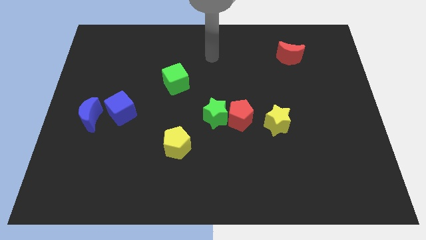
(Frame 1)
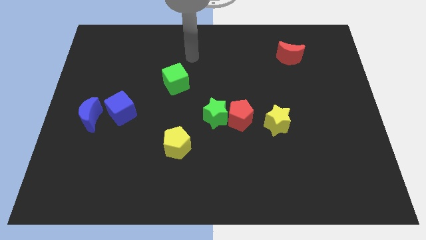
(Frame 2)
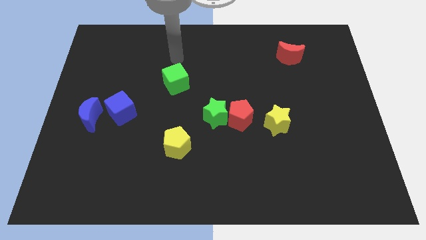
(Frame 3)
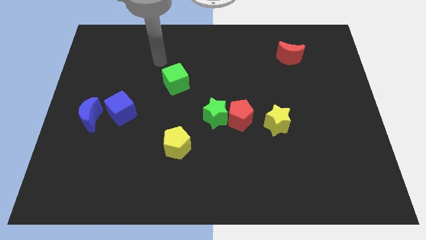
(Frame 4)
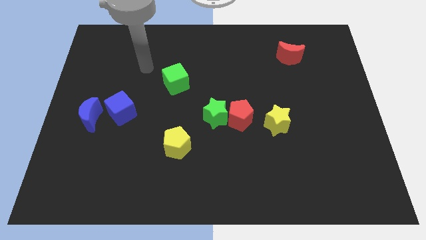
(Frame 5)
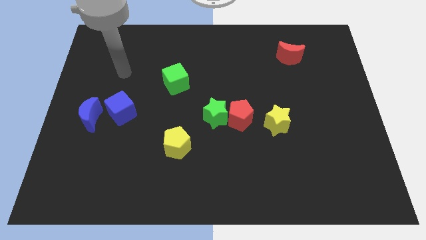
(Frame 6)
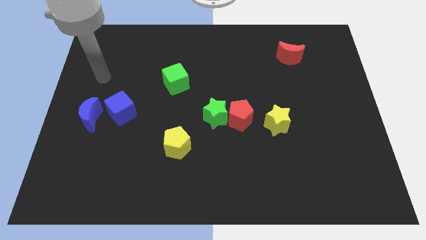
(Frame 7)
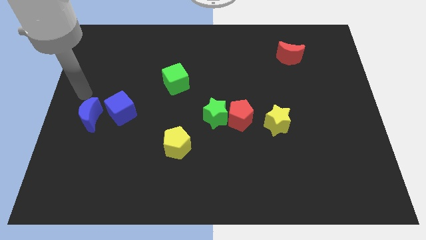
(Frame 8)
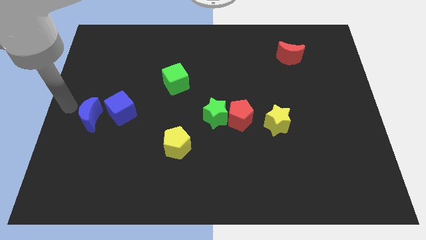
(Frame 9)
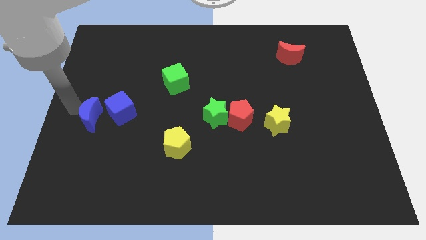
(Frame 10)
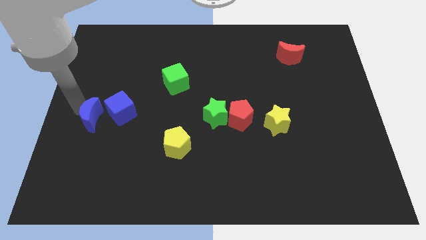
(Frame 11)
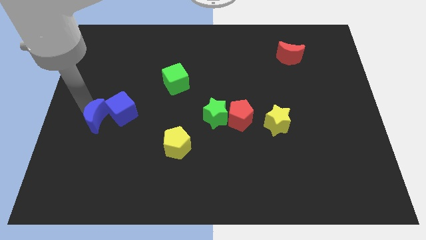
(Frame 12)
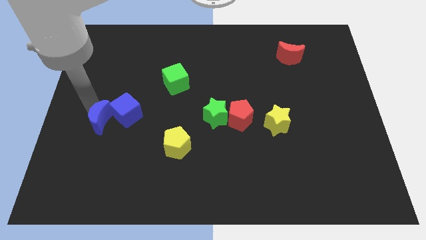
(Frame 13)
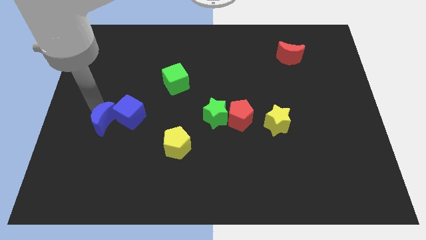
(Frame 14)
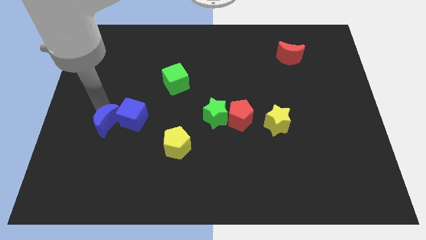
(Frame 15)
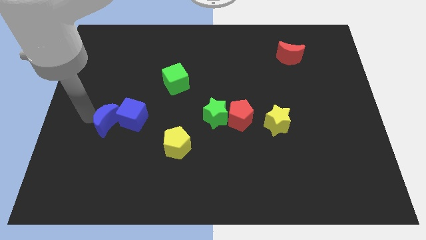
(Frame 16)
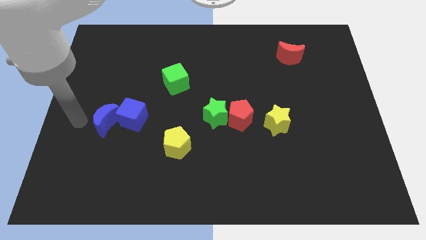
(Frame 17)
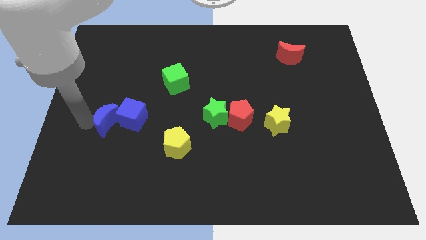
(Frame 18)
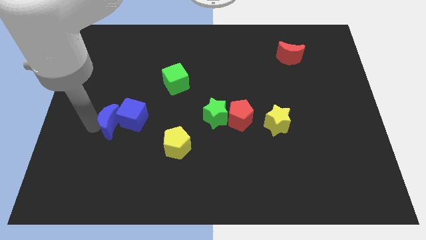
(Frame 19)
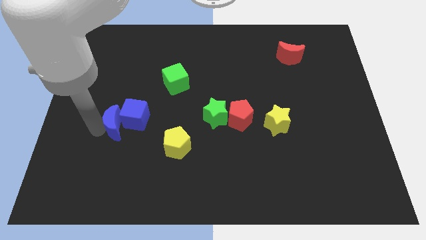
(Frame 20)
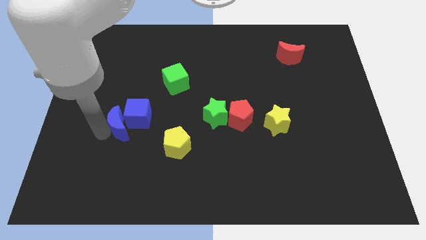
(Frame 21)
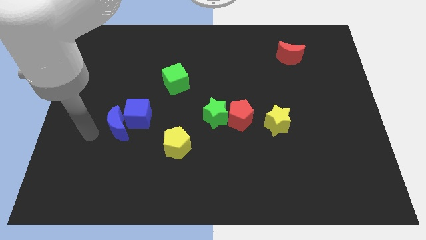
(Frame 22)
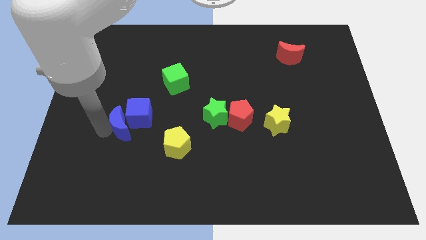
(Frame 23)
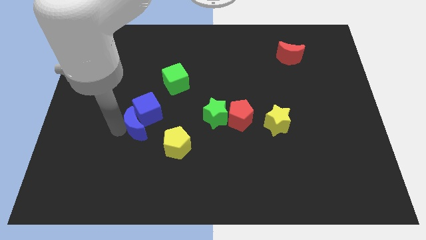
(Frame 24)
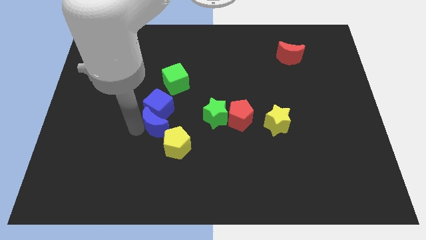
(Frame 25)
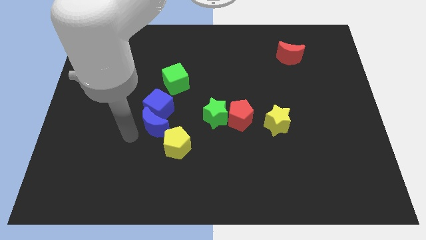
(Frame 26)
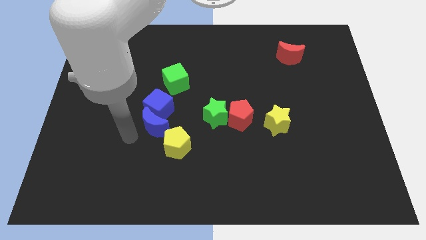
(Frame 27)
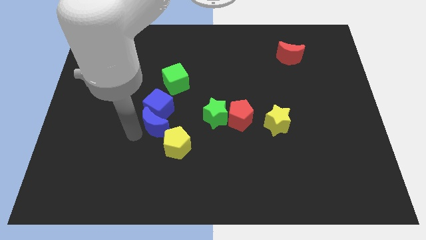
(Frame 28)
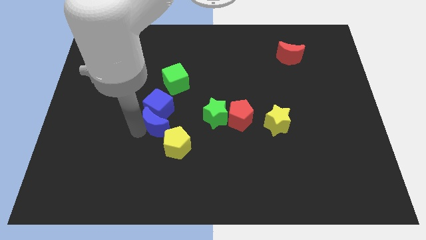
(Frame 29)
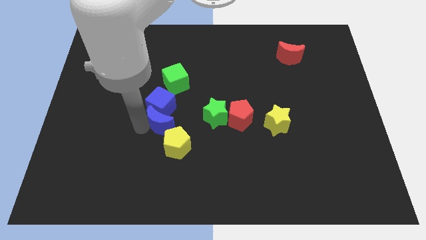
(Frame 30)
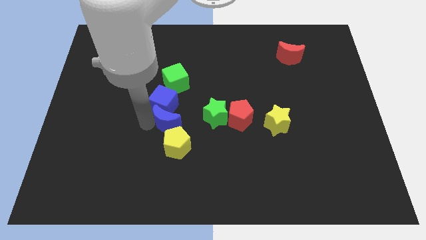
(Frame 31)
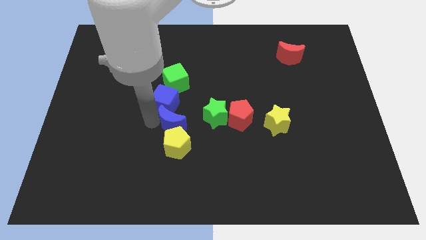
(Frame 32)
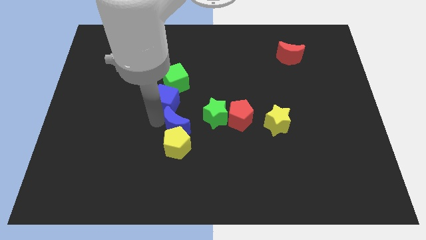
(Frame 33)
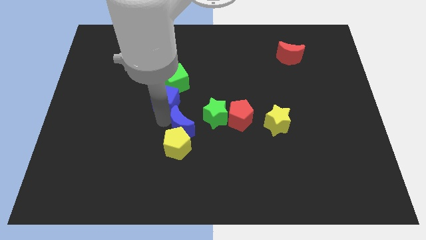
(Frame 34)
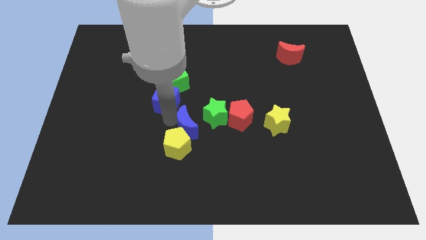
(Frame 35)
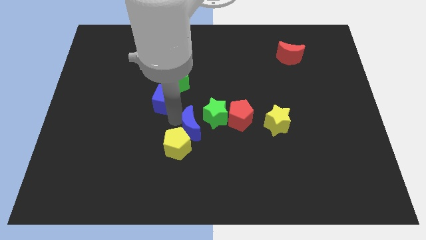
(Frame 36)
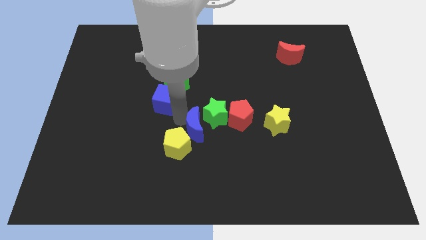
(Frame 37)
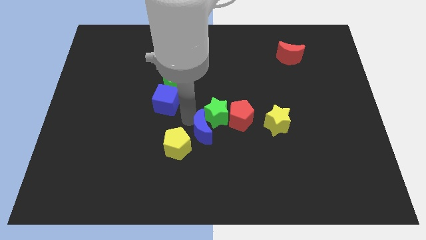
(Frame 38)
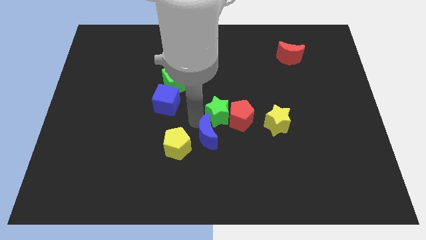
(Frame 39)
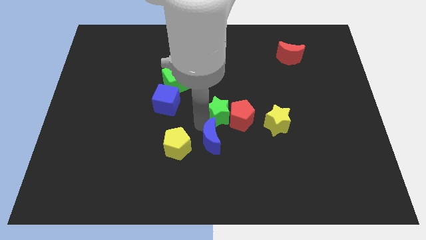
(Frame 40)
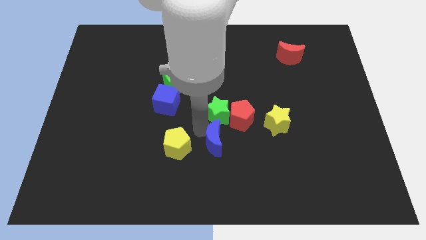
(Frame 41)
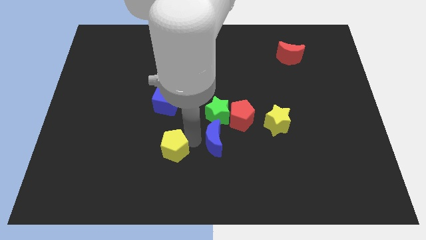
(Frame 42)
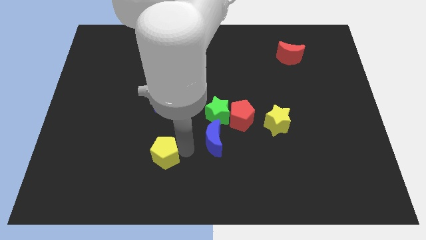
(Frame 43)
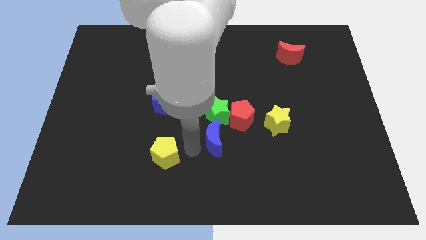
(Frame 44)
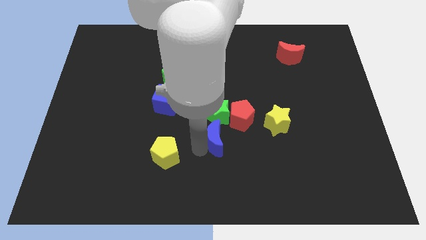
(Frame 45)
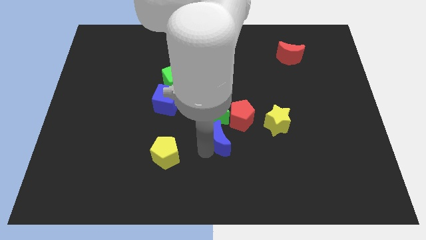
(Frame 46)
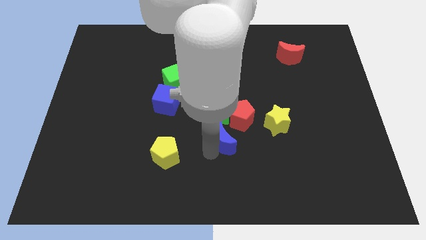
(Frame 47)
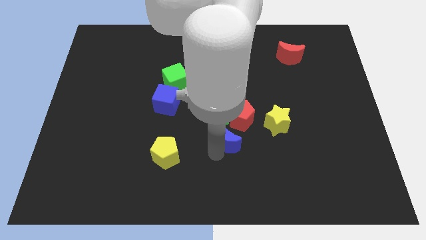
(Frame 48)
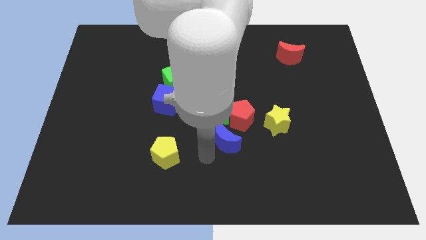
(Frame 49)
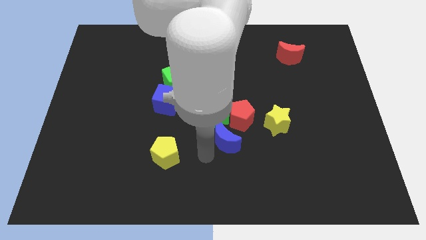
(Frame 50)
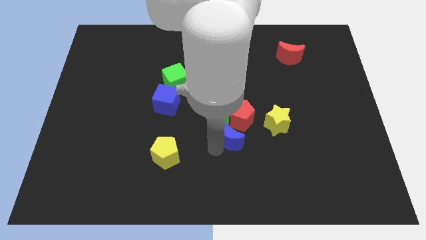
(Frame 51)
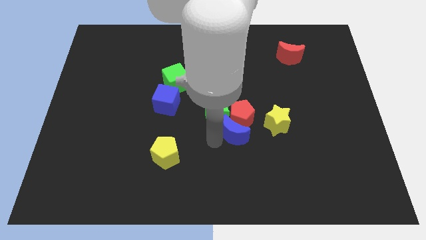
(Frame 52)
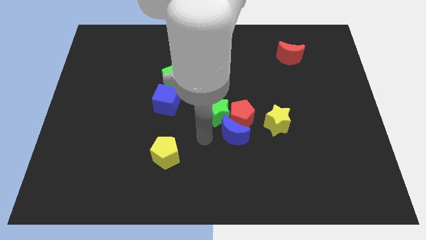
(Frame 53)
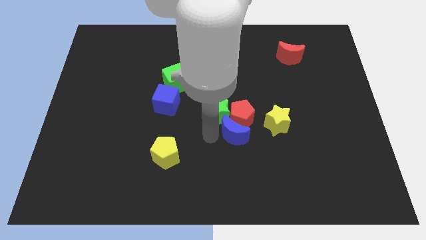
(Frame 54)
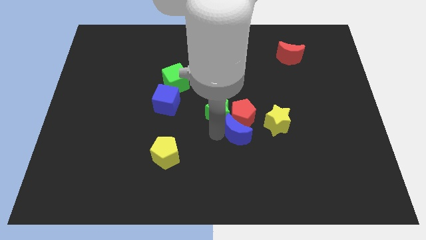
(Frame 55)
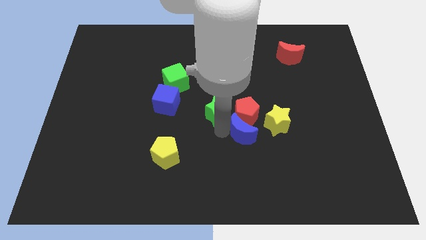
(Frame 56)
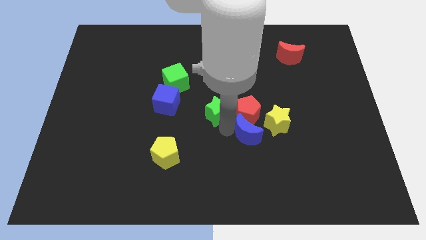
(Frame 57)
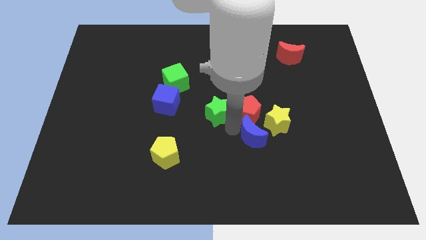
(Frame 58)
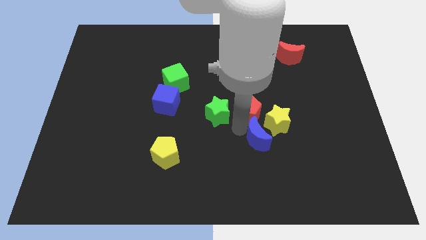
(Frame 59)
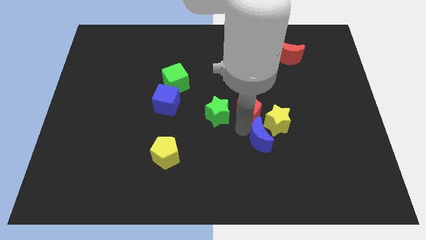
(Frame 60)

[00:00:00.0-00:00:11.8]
put the blue moon close to the yellow star

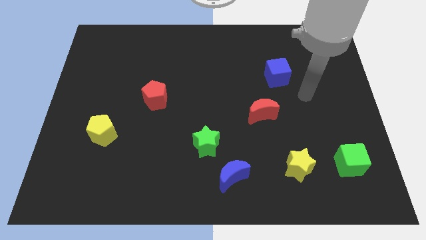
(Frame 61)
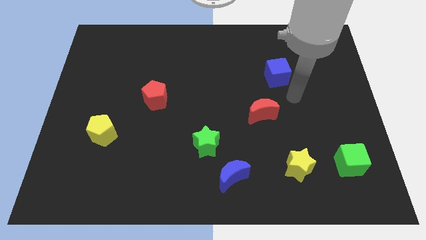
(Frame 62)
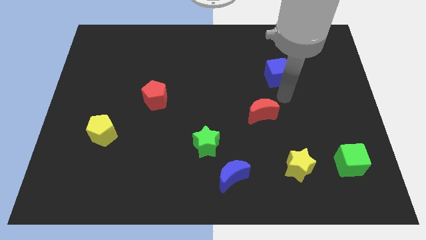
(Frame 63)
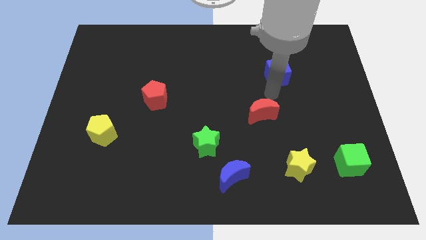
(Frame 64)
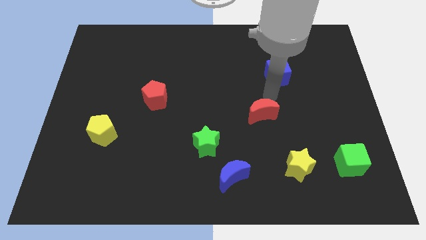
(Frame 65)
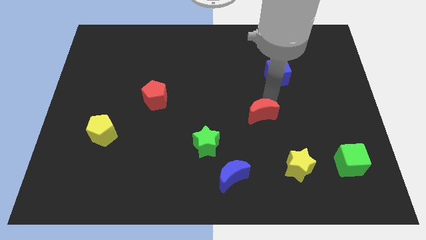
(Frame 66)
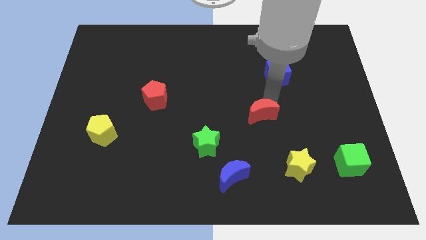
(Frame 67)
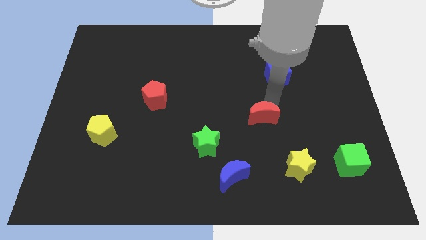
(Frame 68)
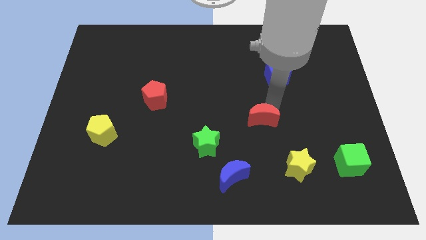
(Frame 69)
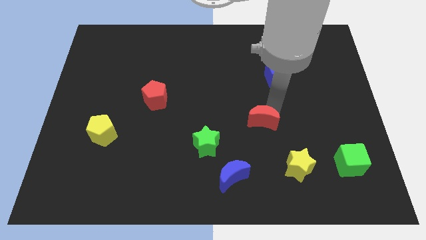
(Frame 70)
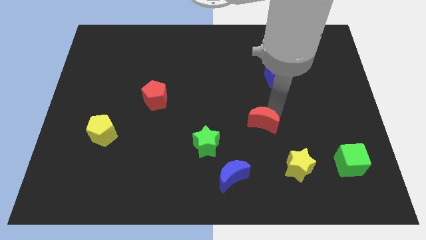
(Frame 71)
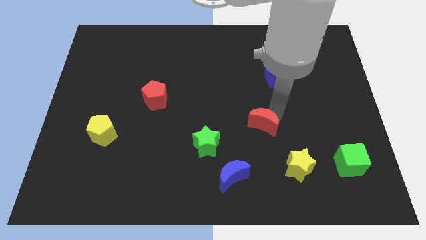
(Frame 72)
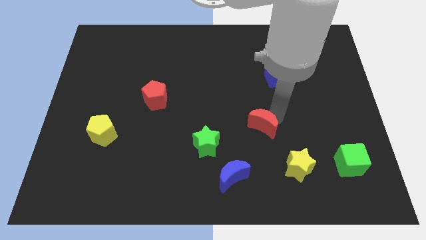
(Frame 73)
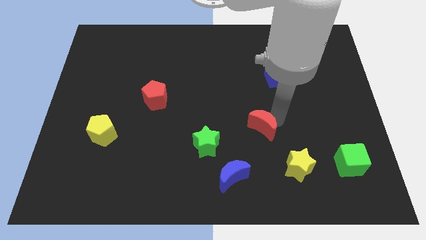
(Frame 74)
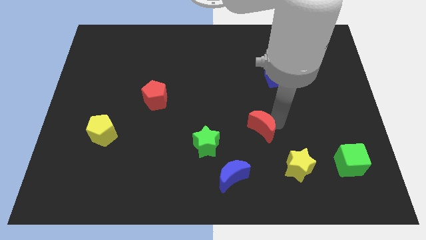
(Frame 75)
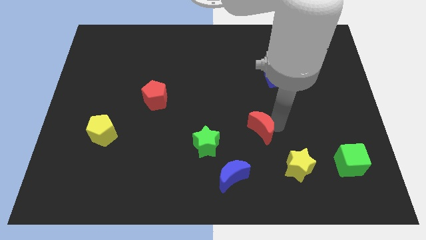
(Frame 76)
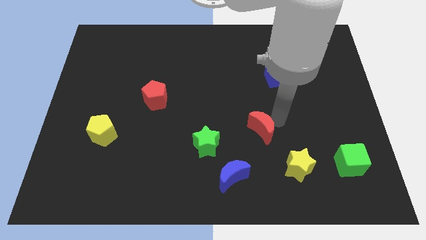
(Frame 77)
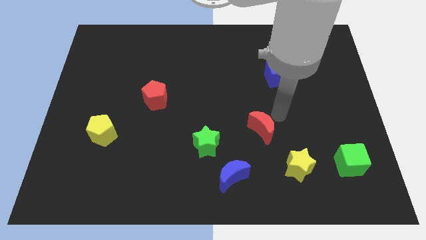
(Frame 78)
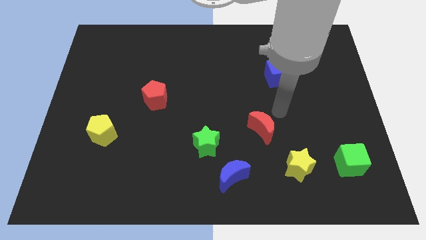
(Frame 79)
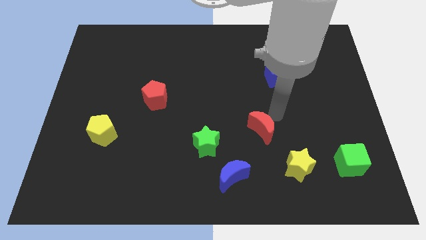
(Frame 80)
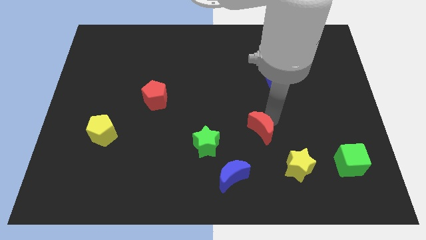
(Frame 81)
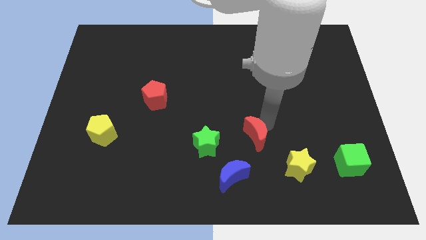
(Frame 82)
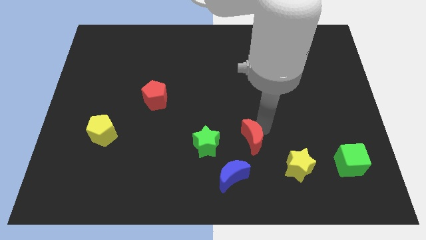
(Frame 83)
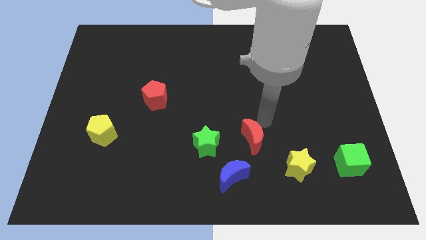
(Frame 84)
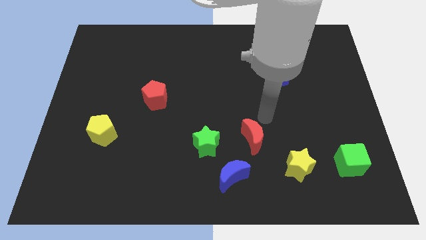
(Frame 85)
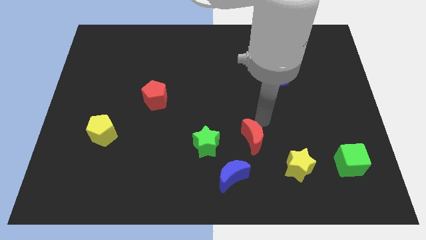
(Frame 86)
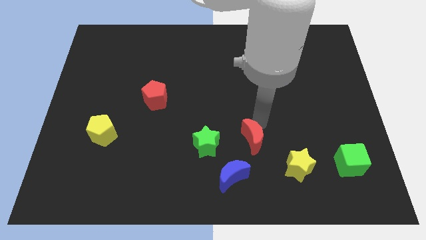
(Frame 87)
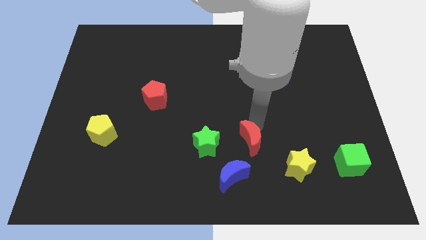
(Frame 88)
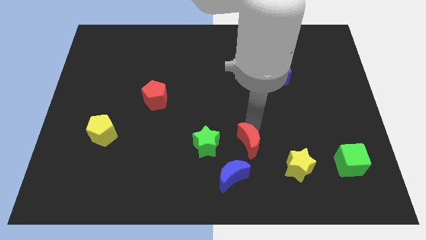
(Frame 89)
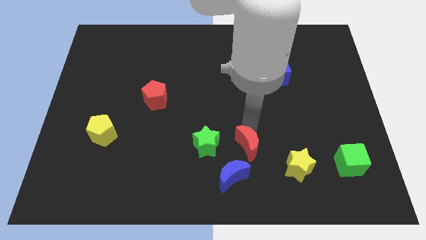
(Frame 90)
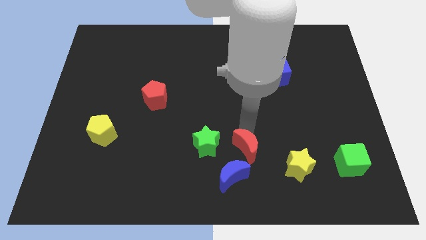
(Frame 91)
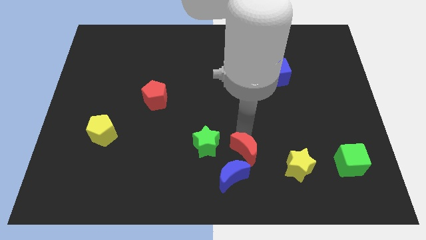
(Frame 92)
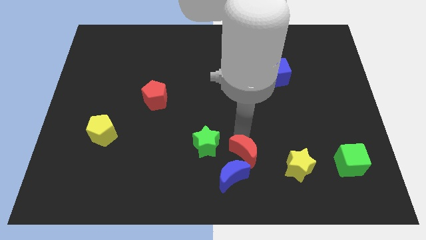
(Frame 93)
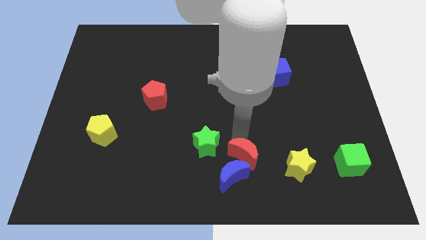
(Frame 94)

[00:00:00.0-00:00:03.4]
put the red moon next to the blue moon
